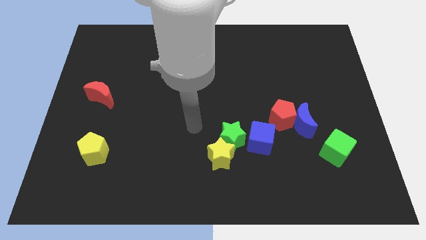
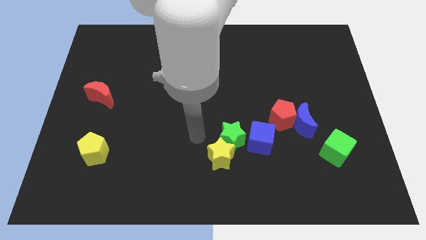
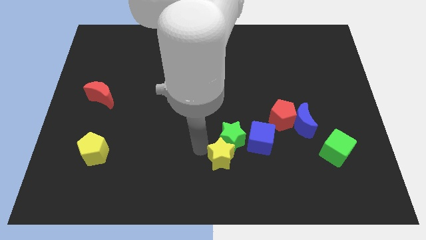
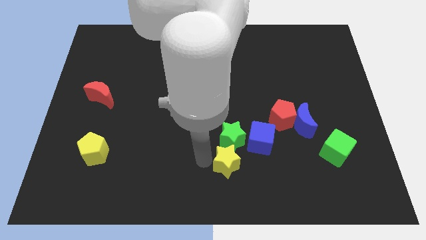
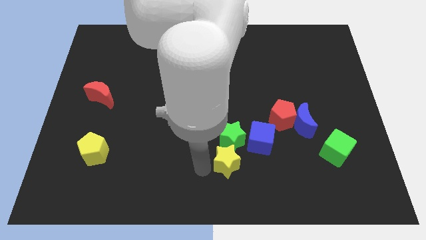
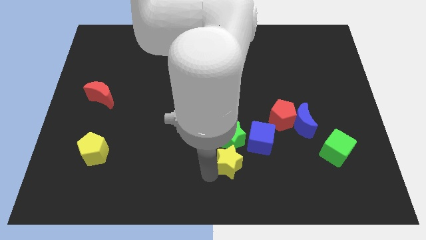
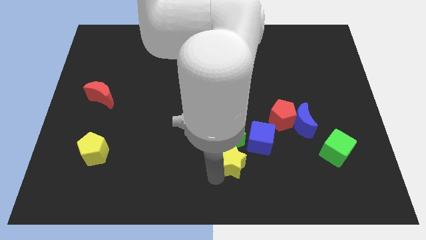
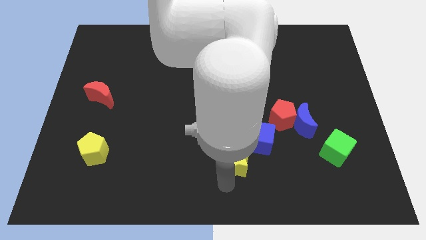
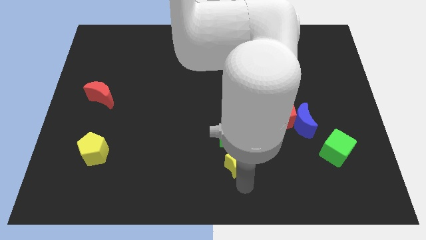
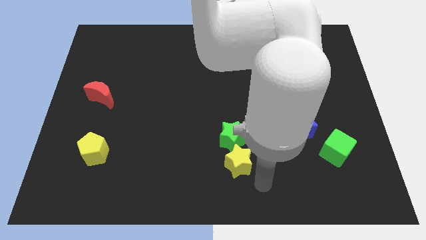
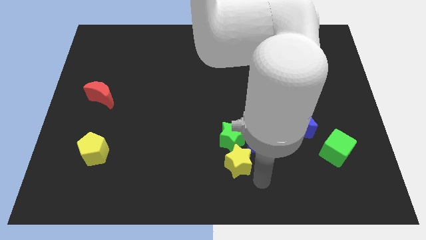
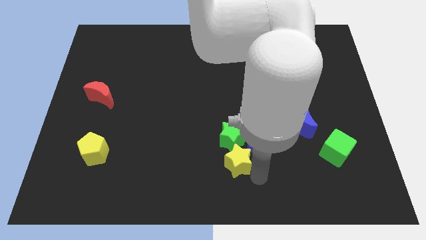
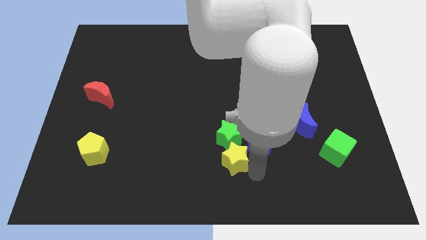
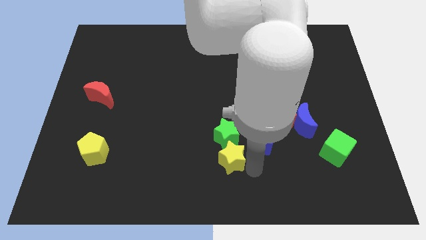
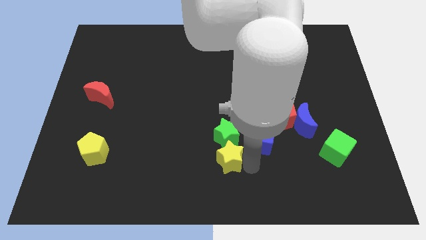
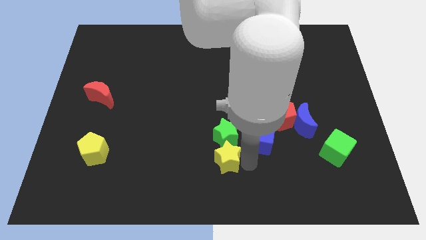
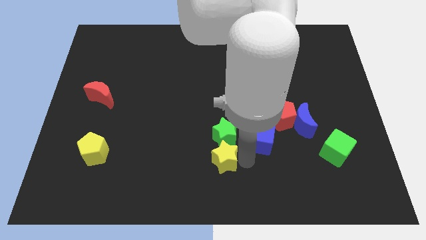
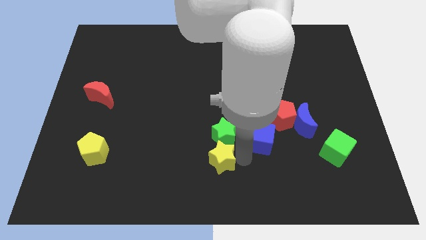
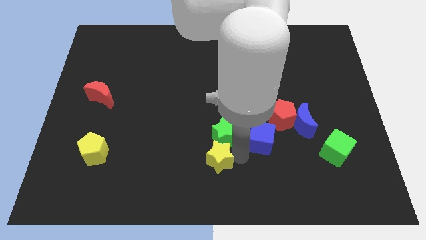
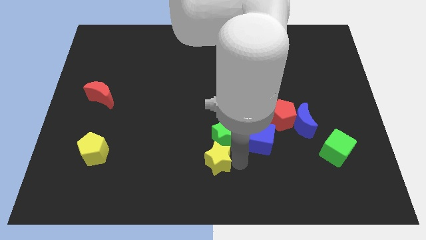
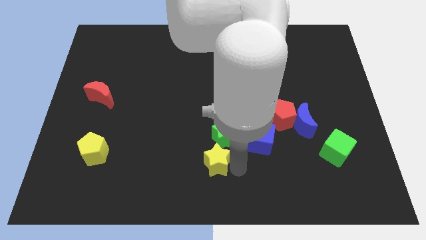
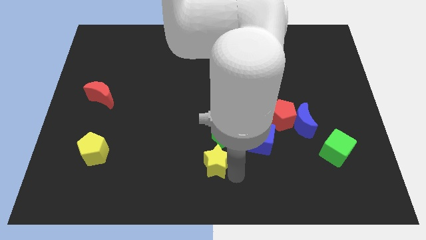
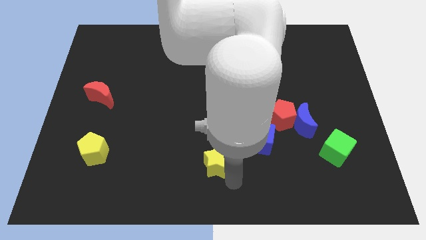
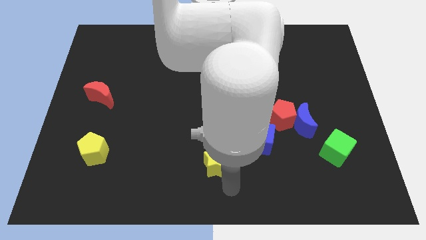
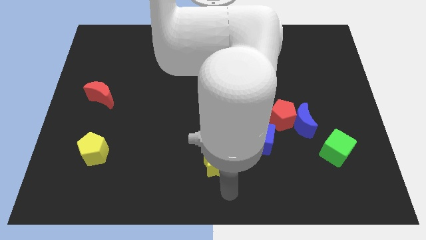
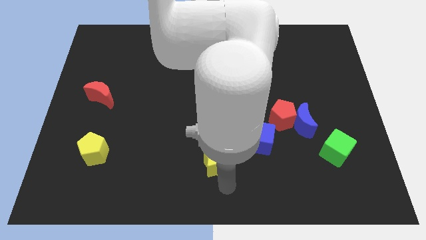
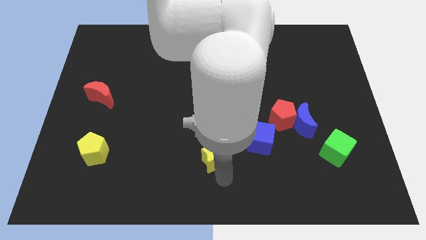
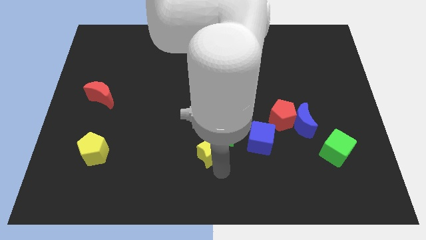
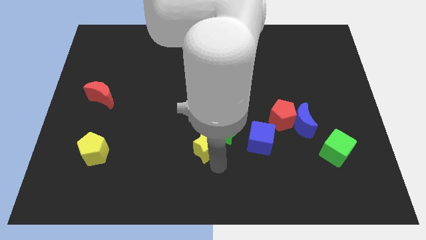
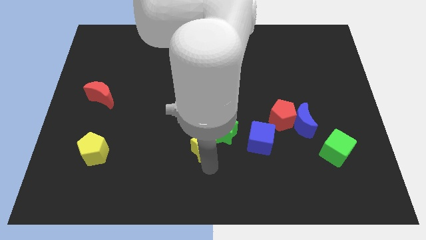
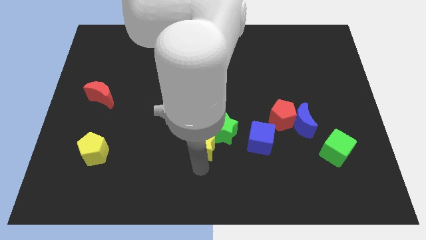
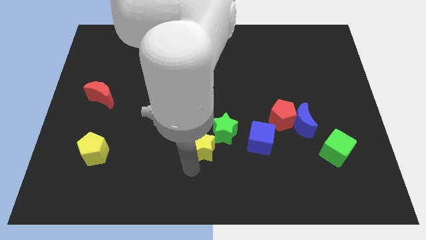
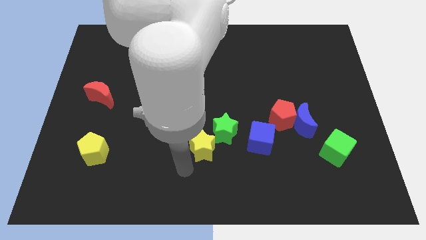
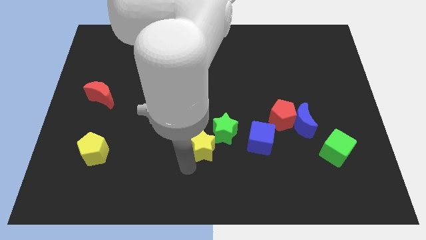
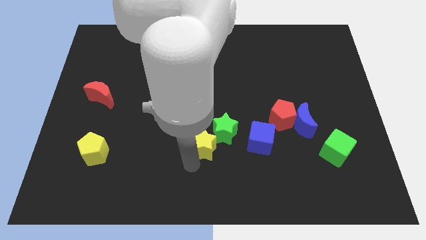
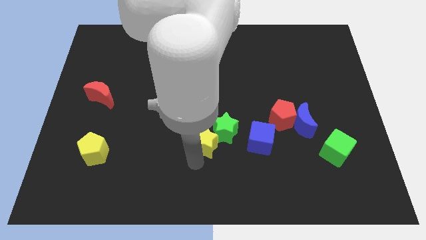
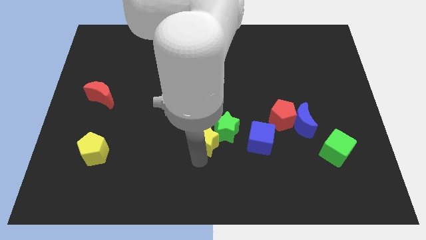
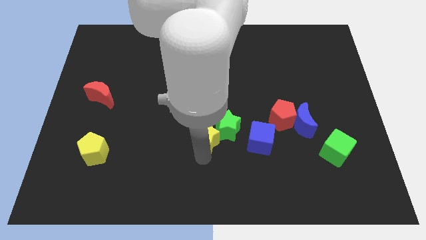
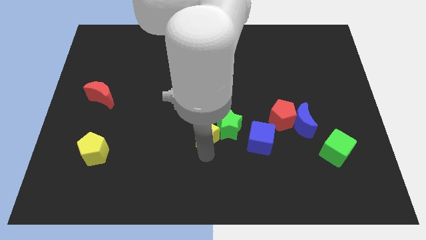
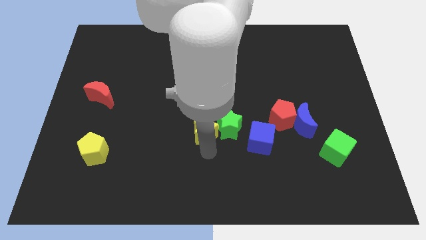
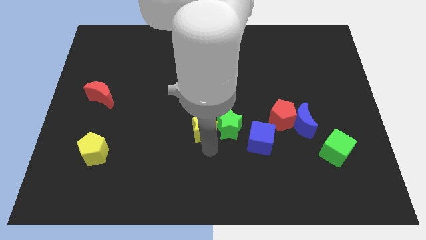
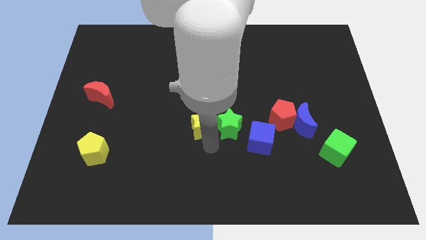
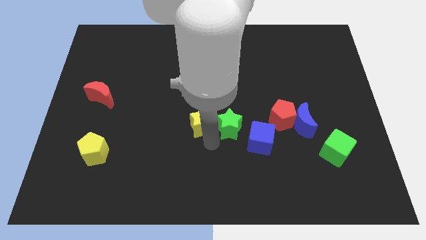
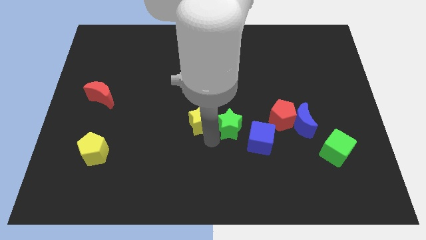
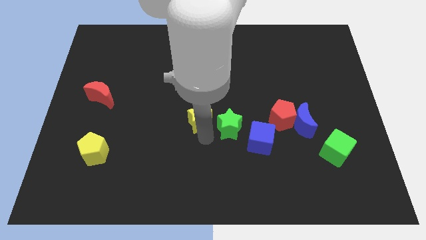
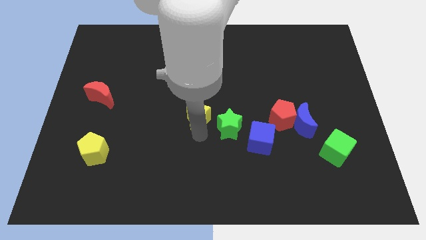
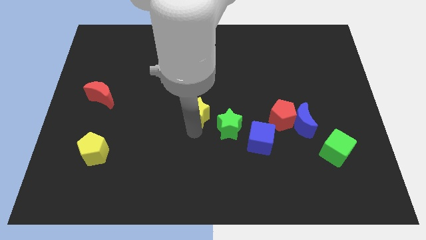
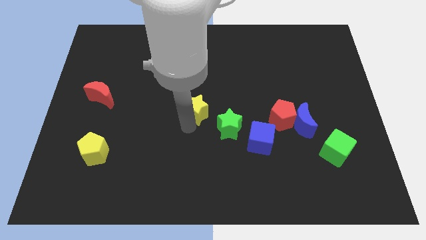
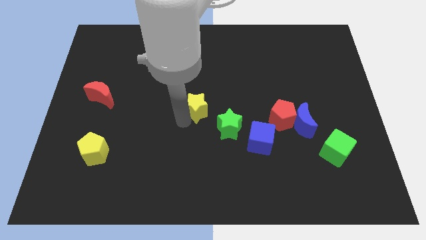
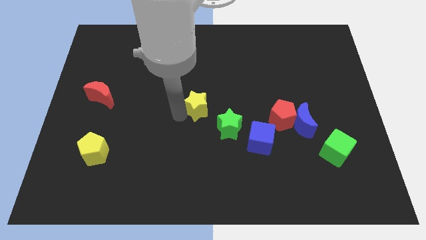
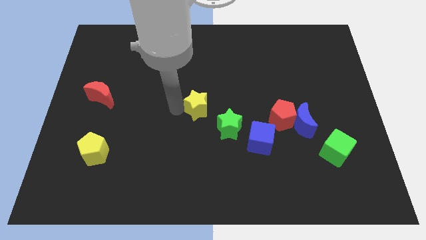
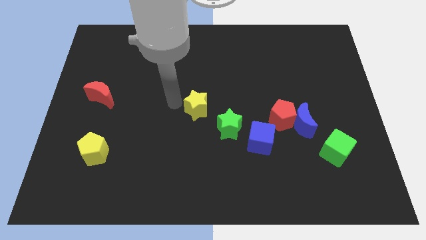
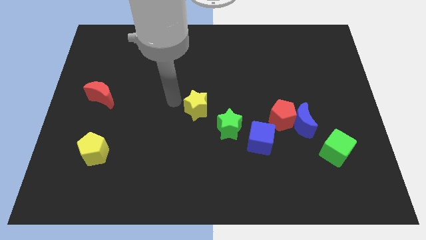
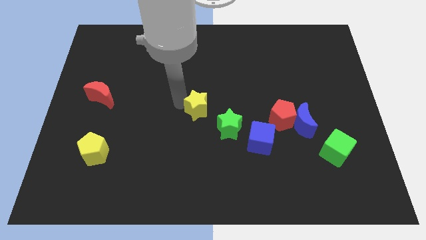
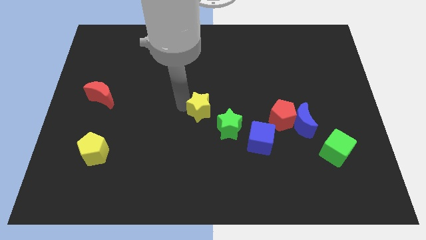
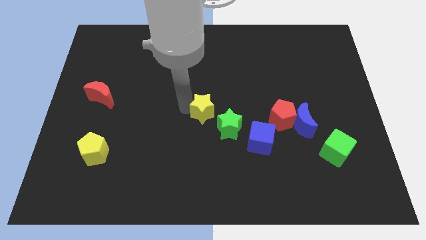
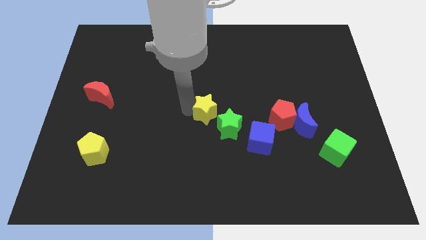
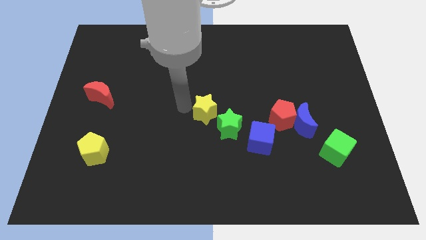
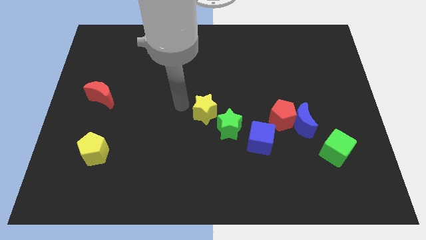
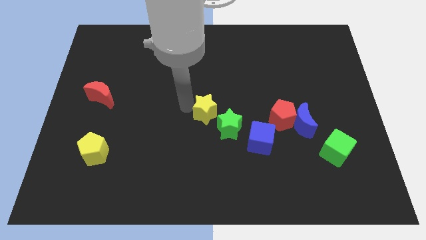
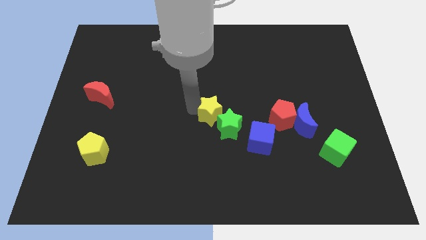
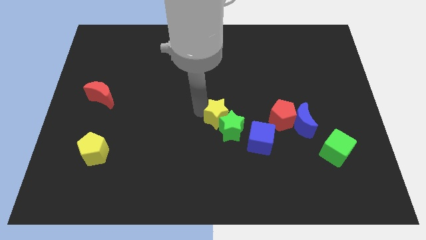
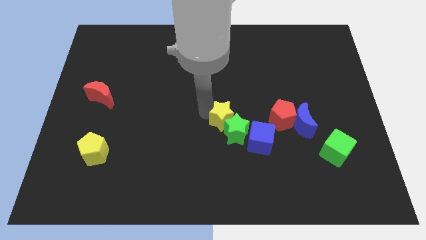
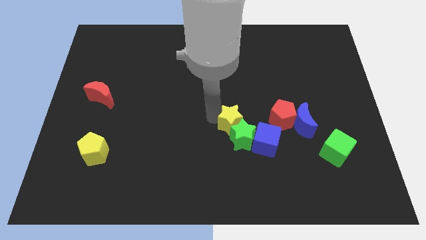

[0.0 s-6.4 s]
put the yellow star to the top right of the green star

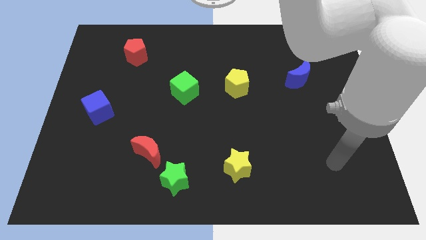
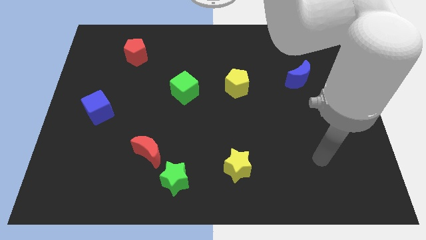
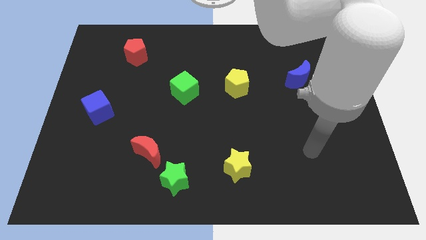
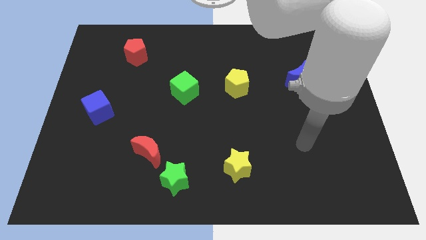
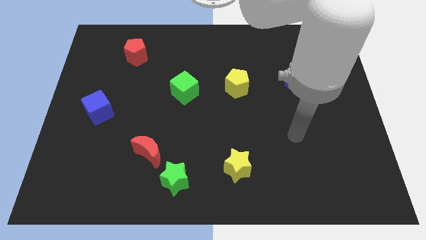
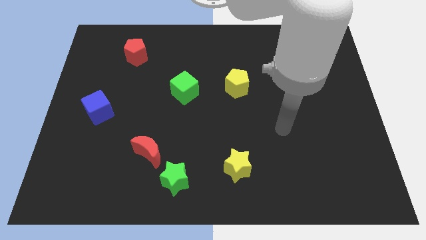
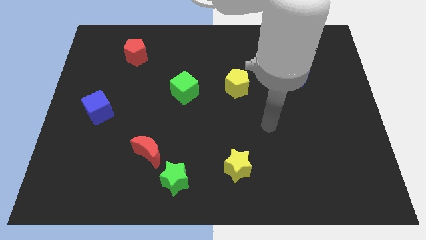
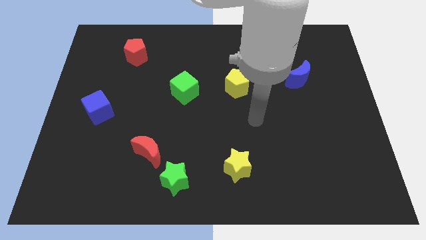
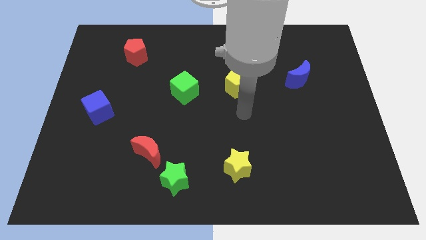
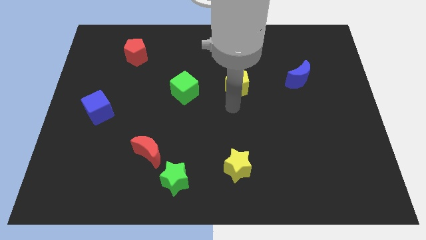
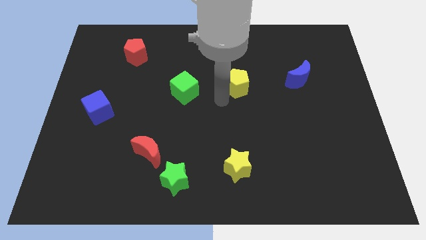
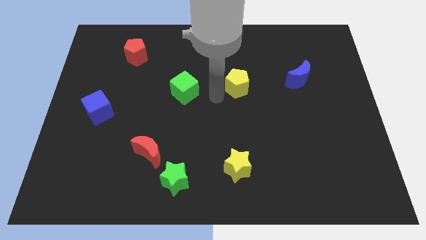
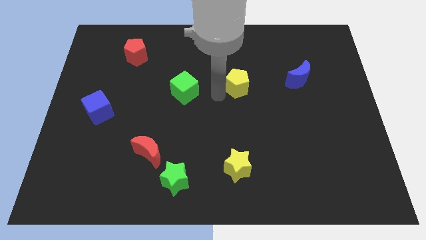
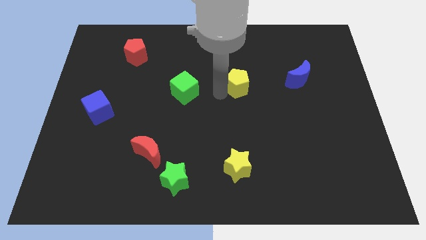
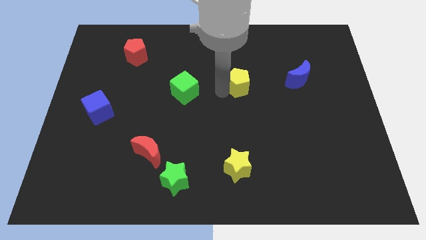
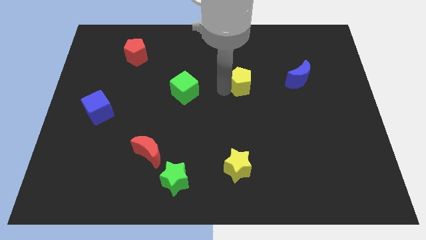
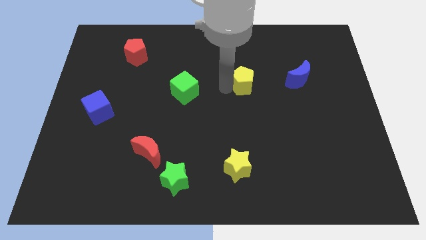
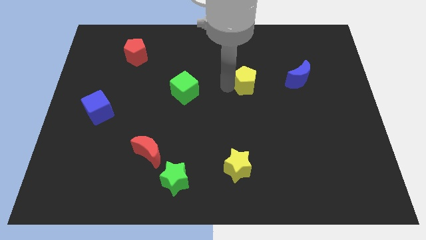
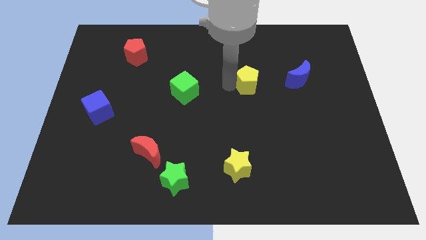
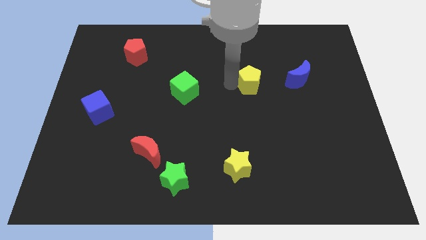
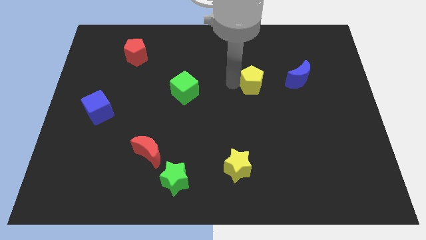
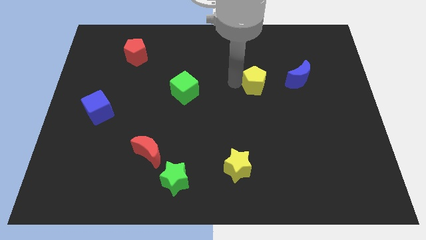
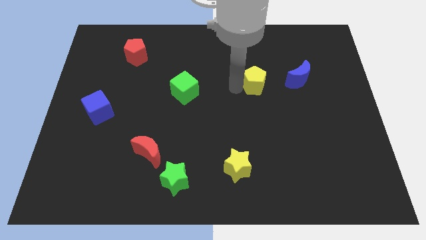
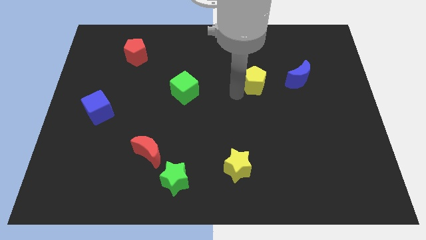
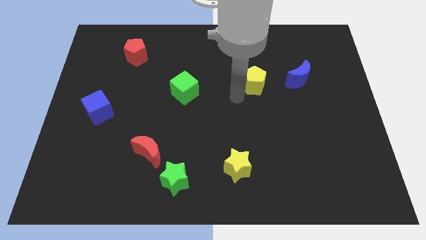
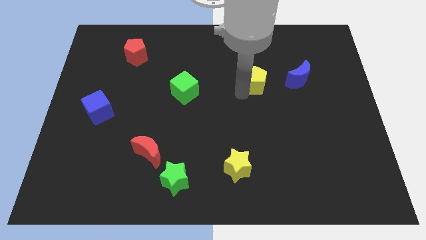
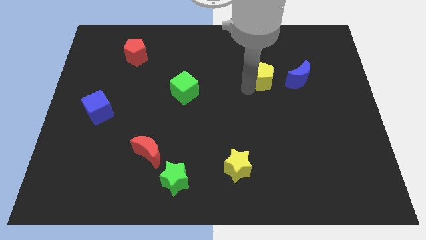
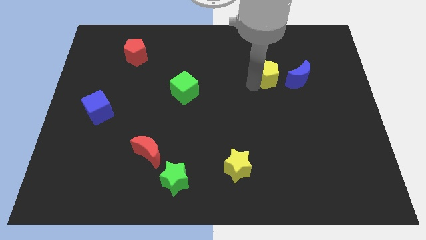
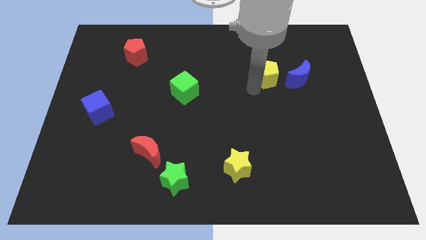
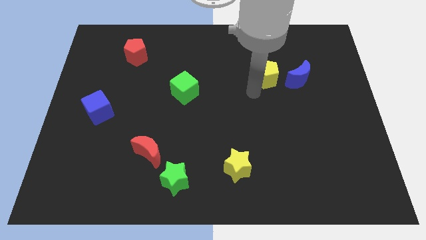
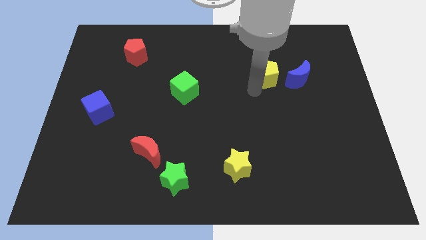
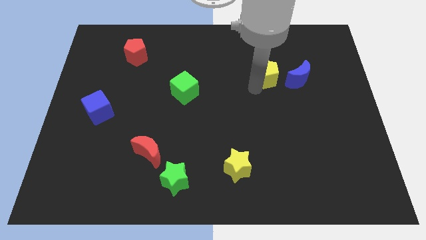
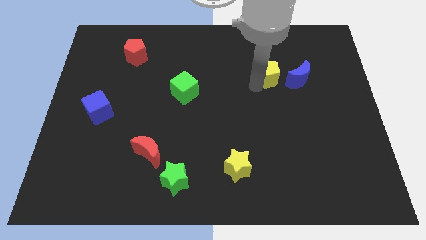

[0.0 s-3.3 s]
slide the yellow pentagon to the top left side of the blue moon
